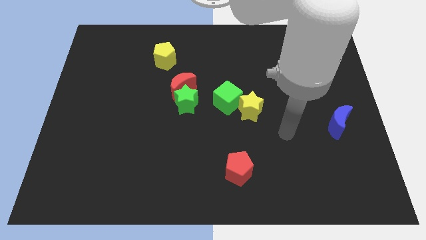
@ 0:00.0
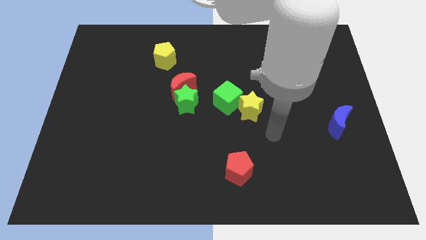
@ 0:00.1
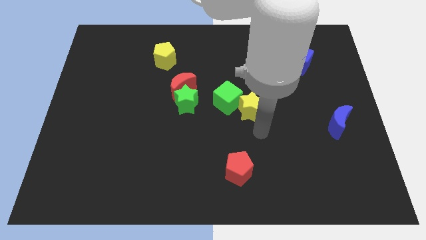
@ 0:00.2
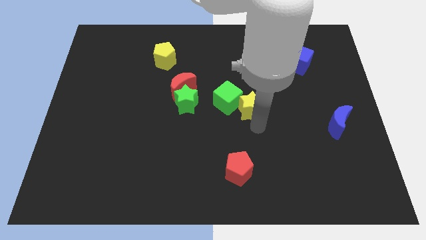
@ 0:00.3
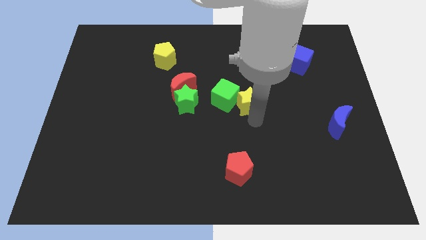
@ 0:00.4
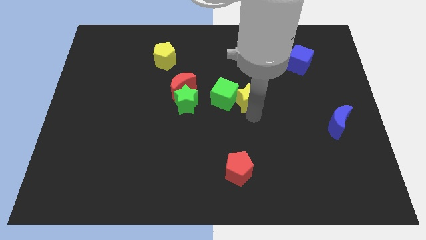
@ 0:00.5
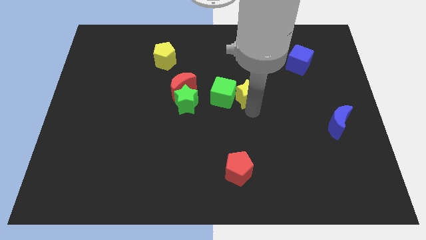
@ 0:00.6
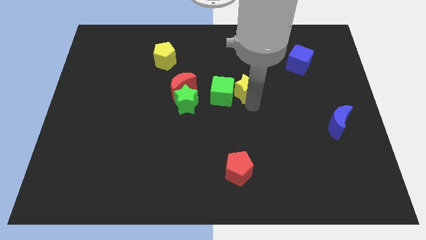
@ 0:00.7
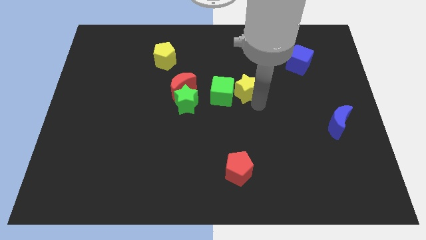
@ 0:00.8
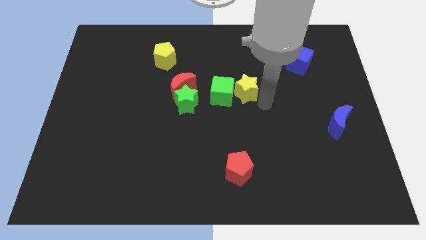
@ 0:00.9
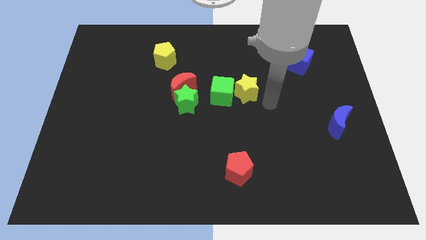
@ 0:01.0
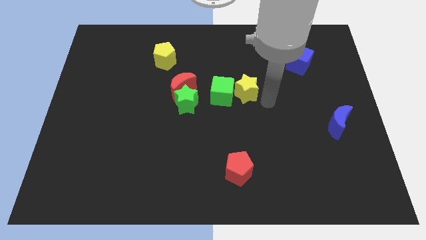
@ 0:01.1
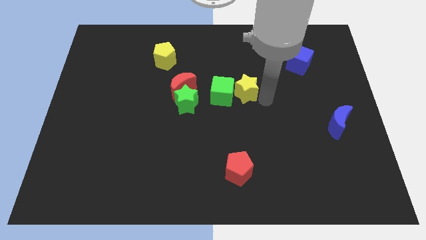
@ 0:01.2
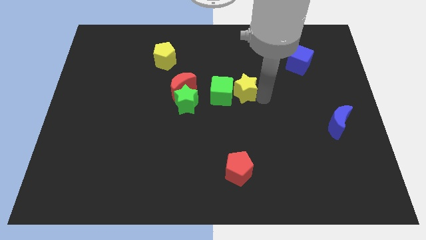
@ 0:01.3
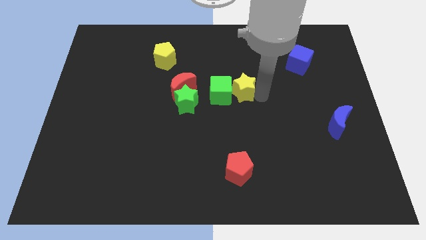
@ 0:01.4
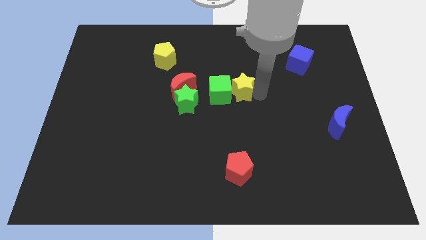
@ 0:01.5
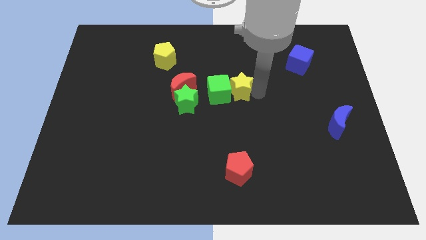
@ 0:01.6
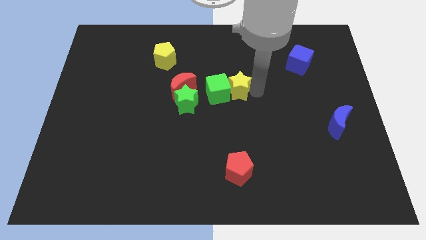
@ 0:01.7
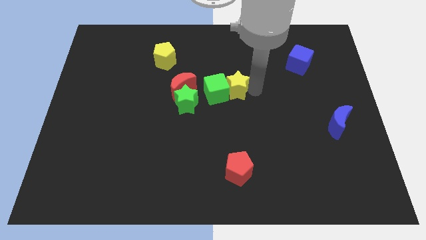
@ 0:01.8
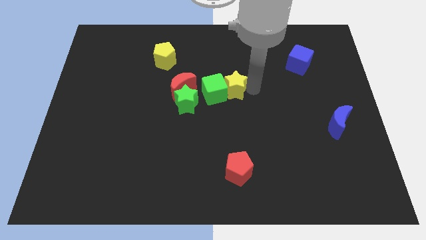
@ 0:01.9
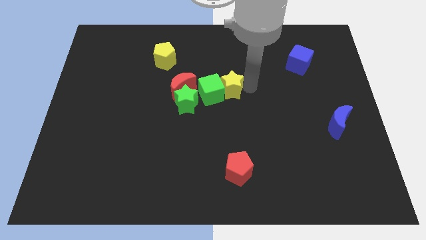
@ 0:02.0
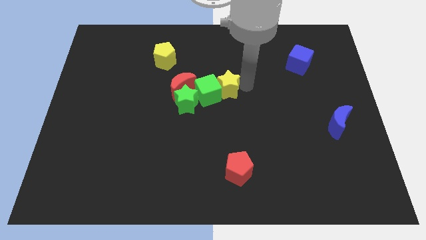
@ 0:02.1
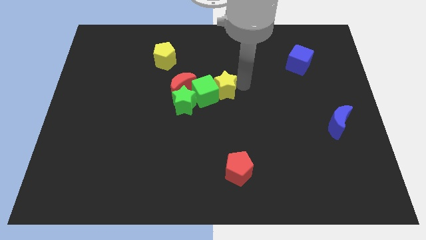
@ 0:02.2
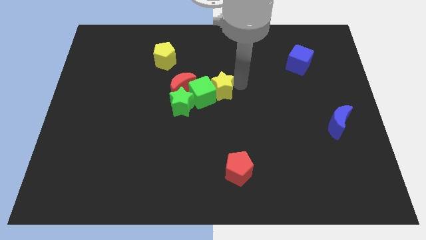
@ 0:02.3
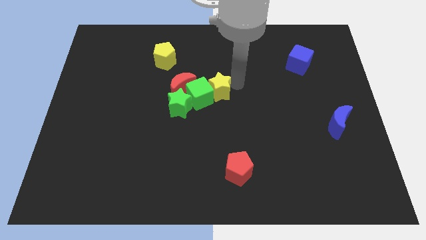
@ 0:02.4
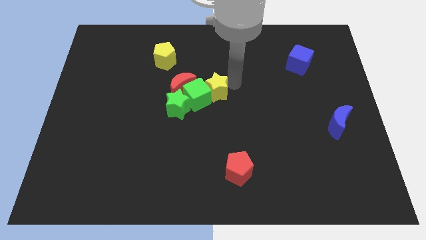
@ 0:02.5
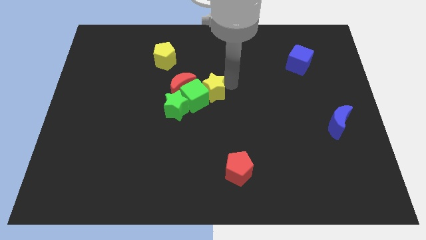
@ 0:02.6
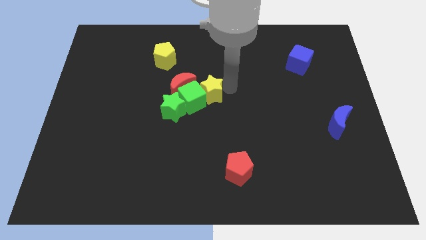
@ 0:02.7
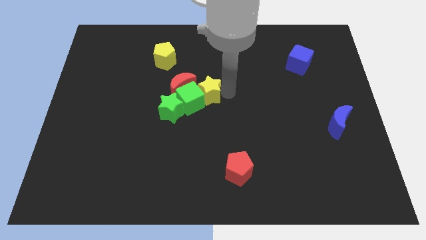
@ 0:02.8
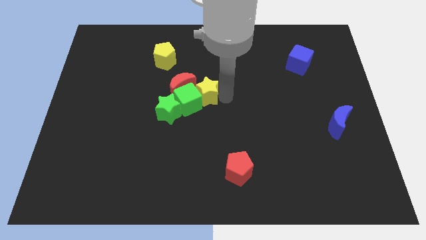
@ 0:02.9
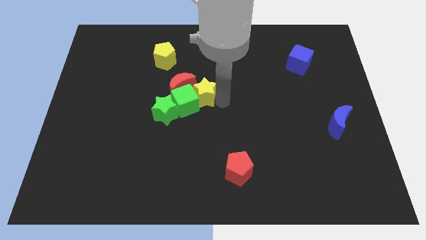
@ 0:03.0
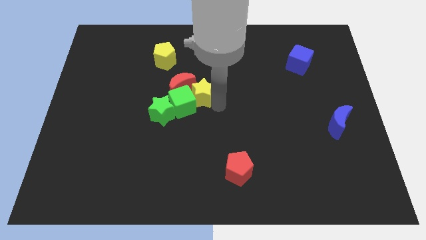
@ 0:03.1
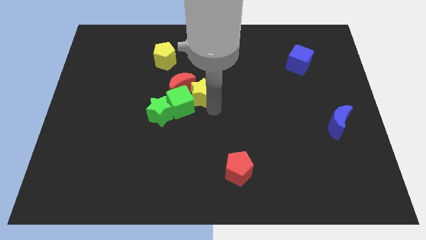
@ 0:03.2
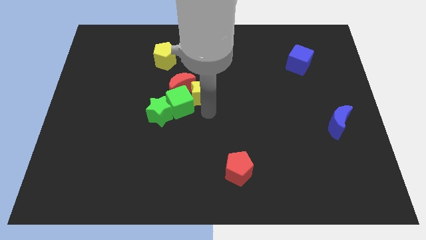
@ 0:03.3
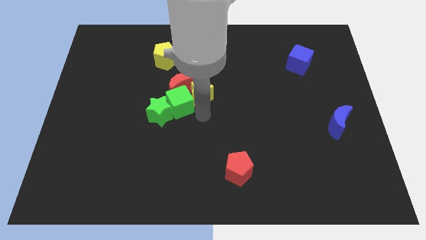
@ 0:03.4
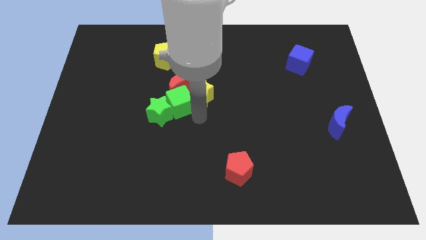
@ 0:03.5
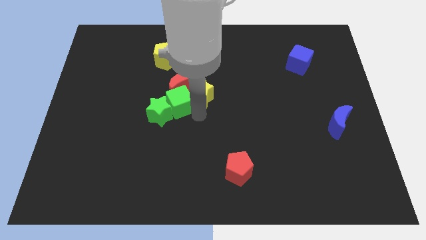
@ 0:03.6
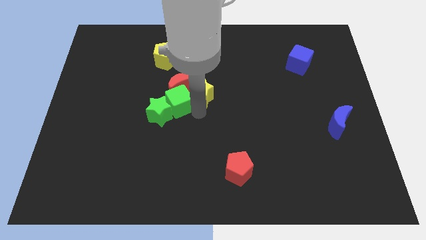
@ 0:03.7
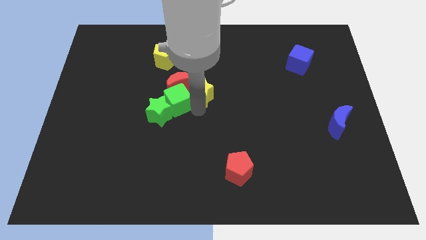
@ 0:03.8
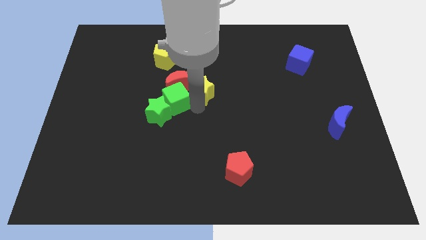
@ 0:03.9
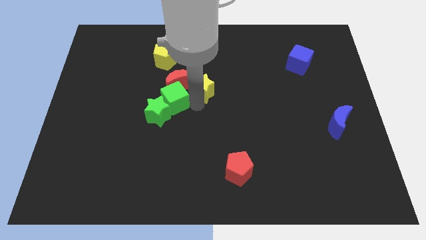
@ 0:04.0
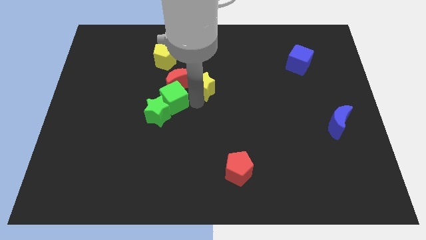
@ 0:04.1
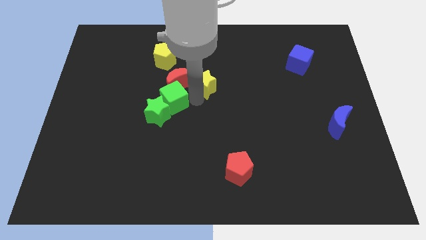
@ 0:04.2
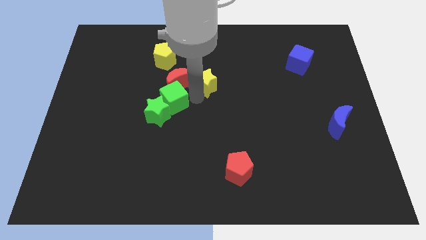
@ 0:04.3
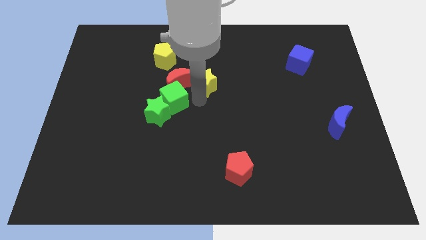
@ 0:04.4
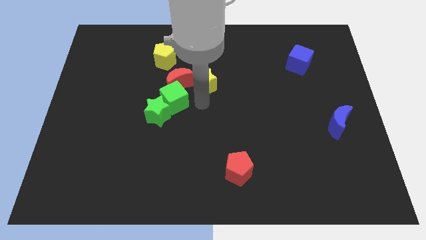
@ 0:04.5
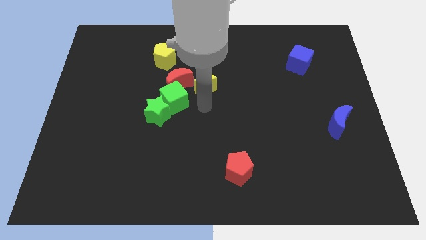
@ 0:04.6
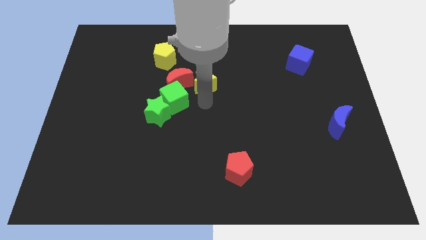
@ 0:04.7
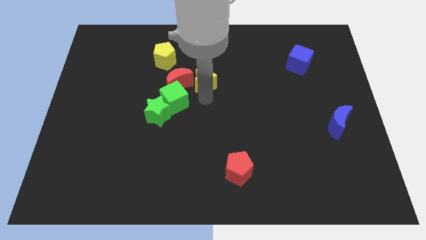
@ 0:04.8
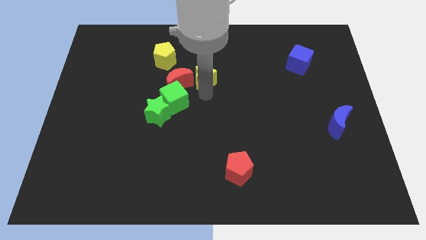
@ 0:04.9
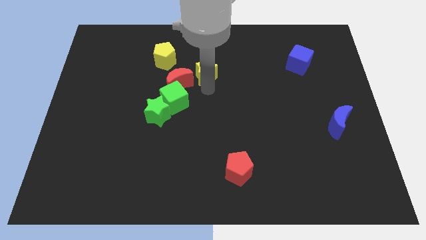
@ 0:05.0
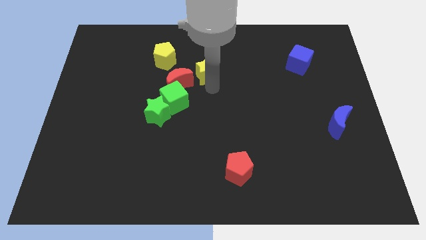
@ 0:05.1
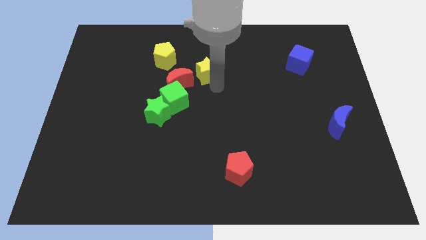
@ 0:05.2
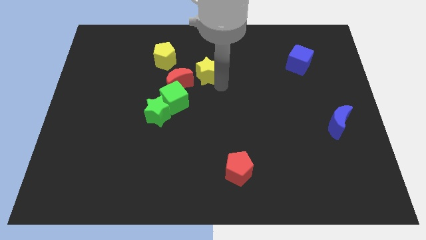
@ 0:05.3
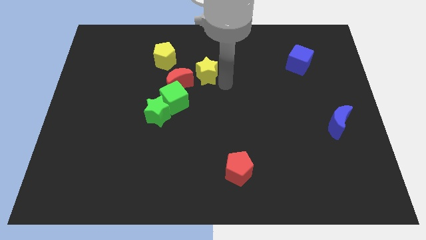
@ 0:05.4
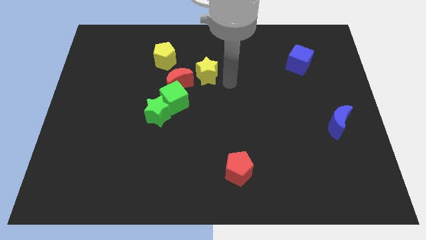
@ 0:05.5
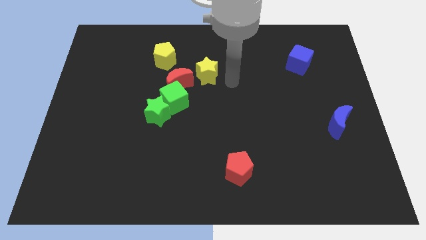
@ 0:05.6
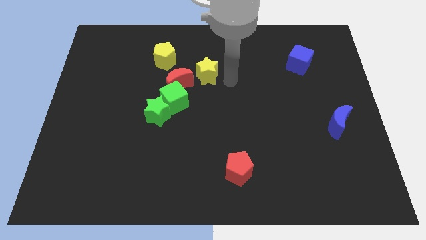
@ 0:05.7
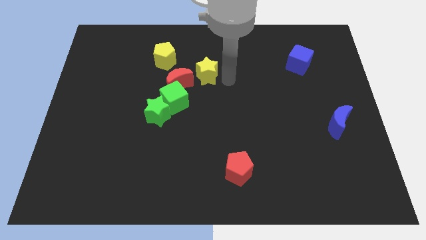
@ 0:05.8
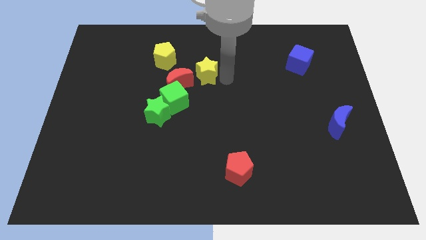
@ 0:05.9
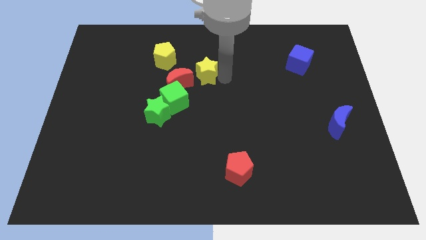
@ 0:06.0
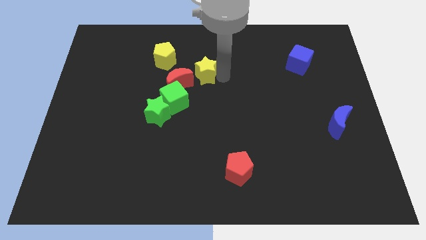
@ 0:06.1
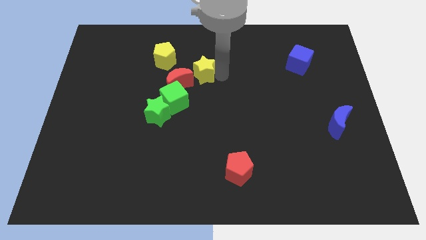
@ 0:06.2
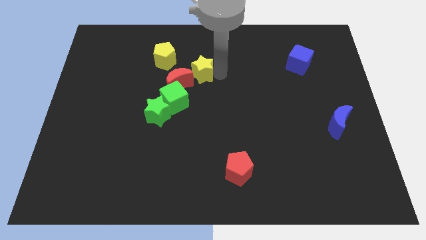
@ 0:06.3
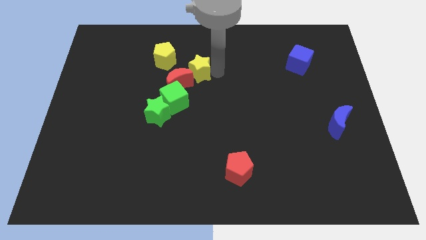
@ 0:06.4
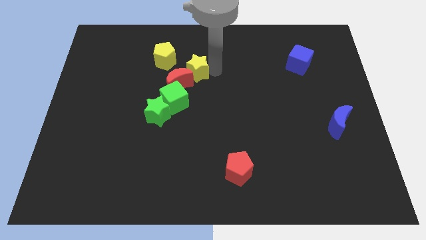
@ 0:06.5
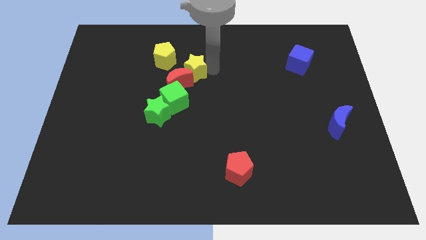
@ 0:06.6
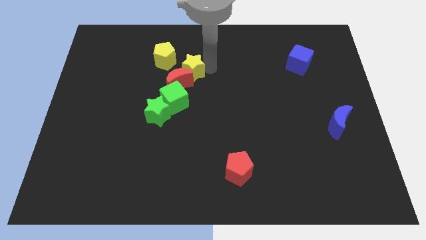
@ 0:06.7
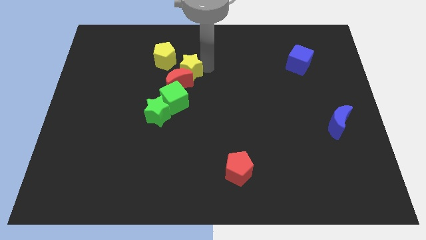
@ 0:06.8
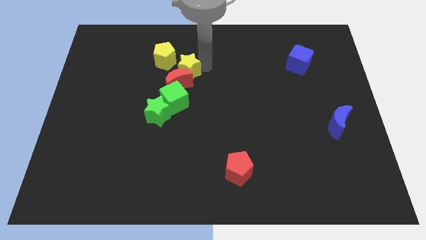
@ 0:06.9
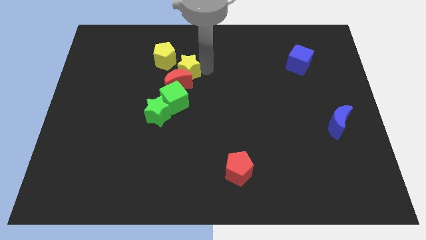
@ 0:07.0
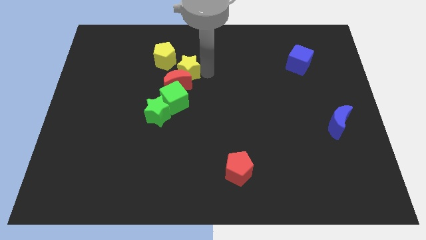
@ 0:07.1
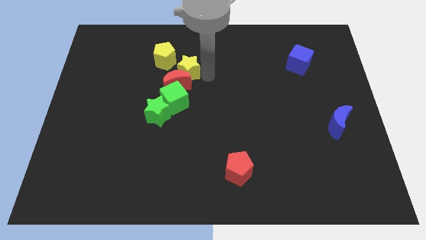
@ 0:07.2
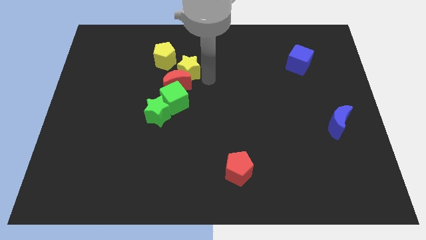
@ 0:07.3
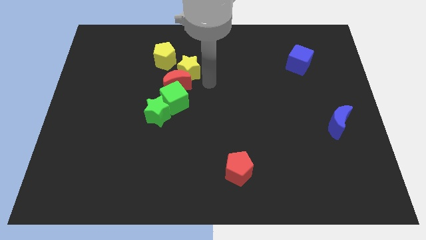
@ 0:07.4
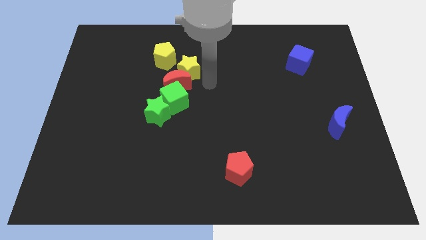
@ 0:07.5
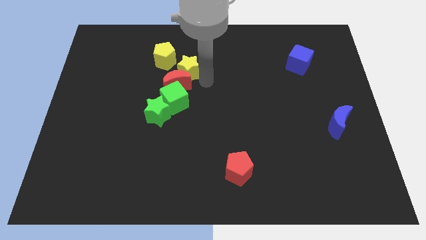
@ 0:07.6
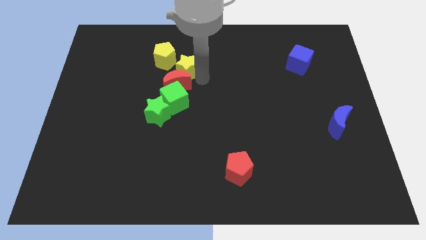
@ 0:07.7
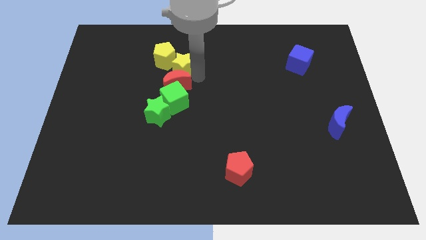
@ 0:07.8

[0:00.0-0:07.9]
put the yellow star towards the yellow pentagon
